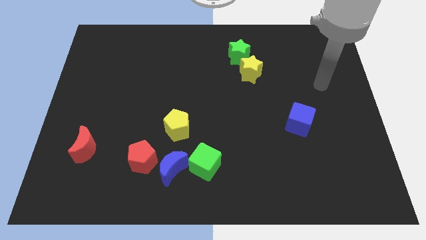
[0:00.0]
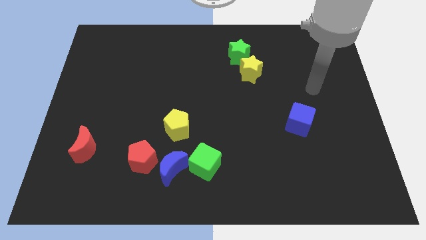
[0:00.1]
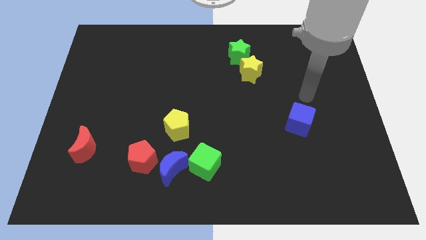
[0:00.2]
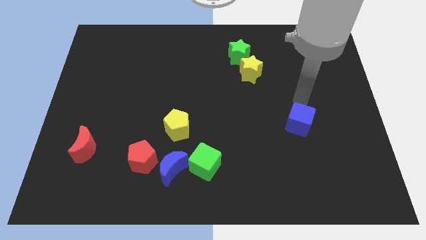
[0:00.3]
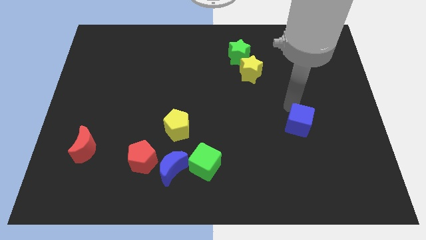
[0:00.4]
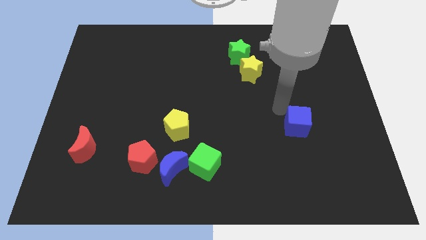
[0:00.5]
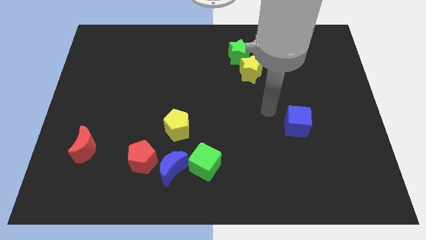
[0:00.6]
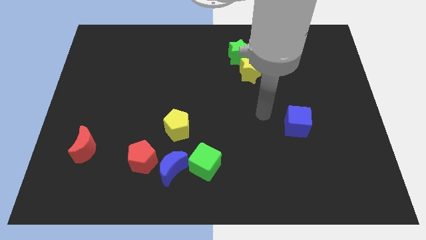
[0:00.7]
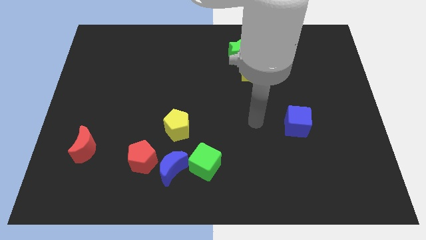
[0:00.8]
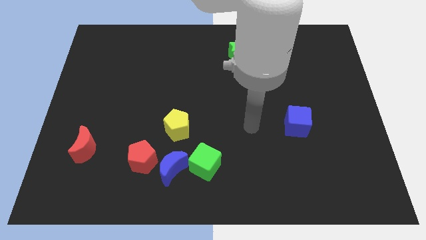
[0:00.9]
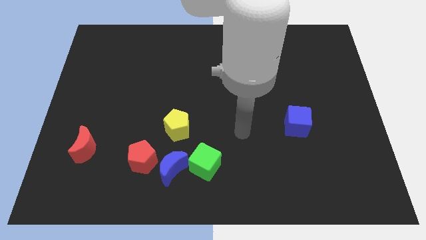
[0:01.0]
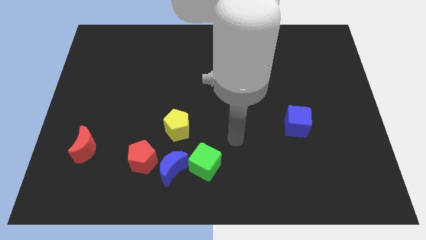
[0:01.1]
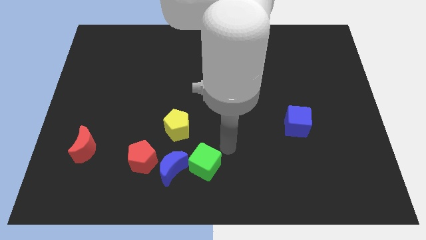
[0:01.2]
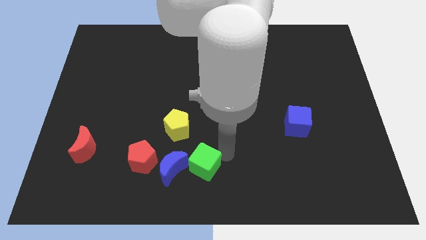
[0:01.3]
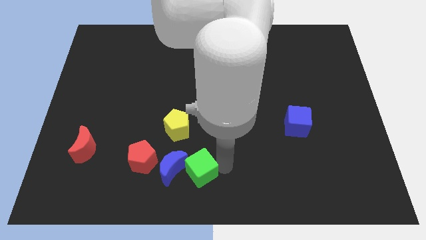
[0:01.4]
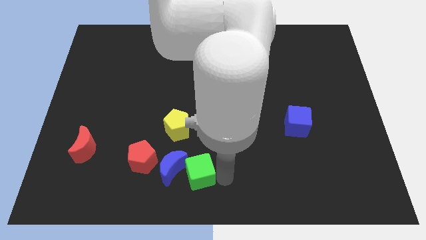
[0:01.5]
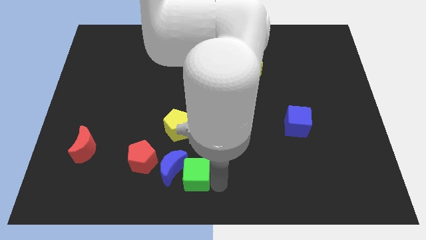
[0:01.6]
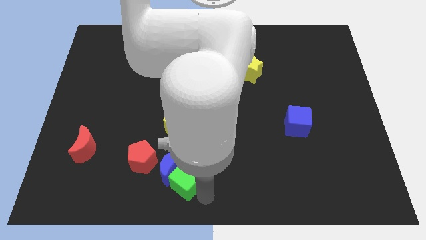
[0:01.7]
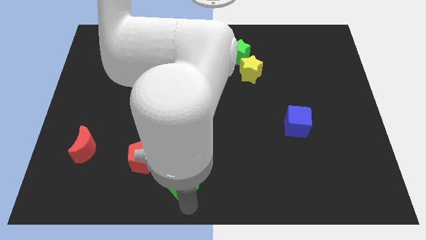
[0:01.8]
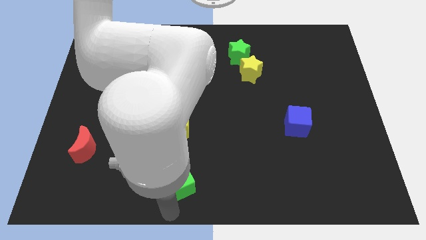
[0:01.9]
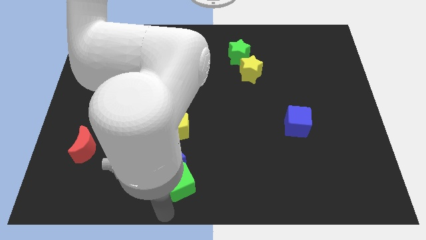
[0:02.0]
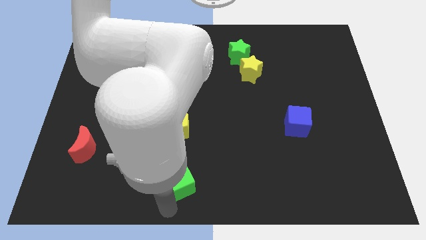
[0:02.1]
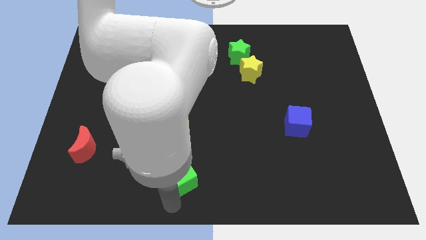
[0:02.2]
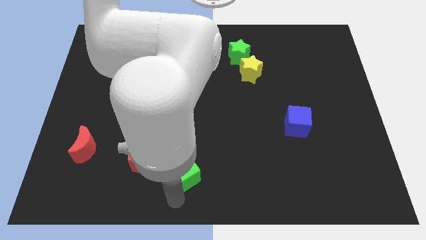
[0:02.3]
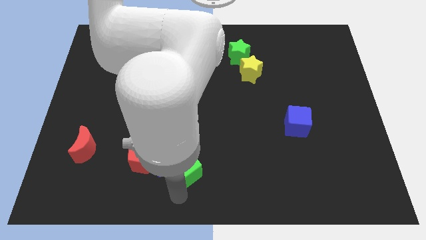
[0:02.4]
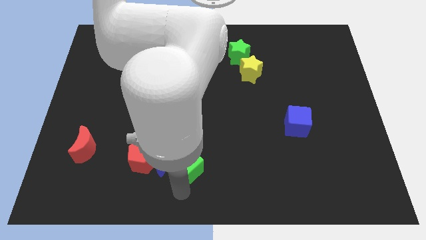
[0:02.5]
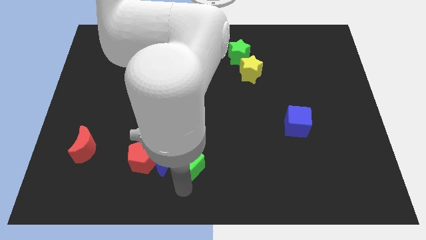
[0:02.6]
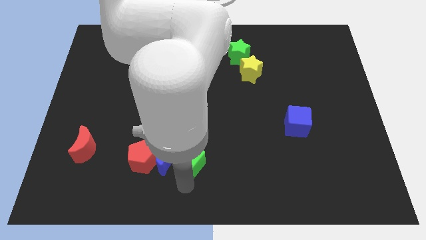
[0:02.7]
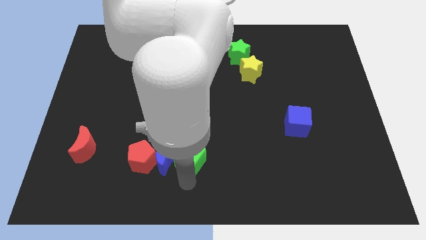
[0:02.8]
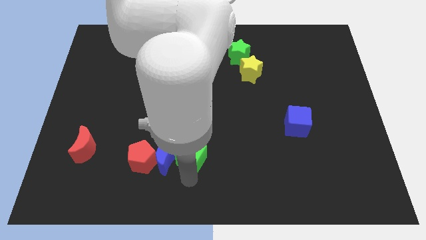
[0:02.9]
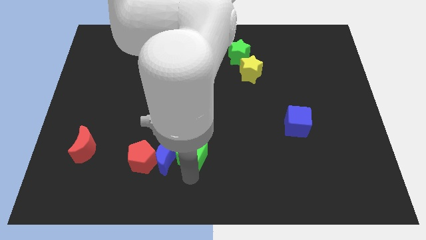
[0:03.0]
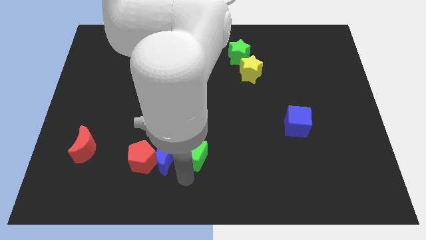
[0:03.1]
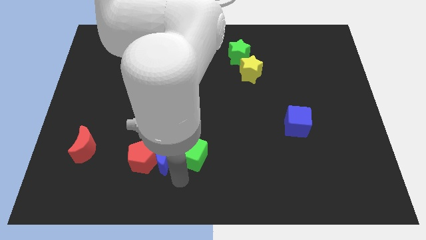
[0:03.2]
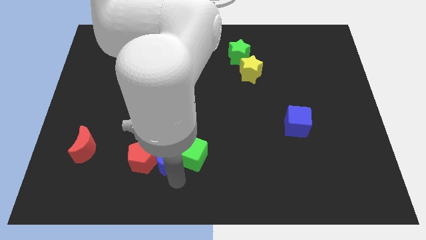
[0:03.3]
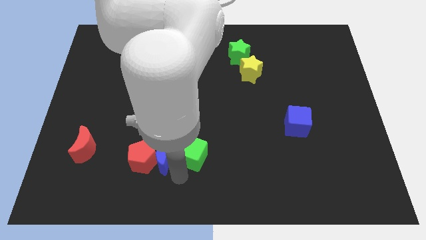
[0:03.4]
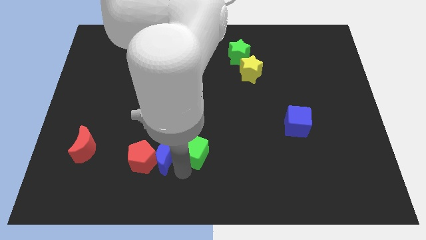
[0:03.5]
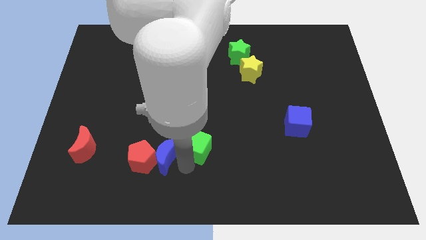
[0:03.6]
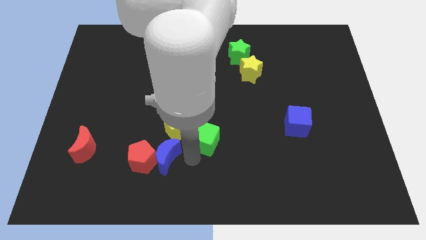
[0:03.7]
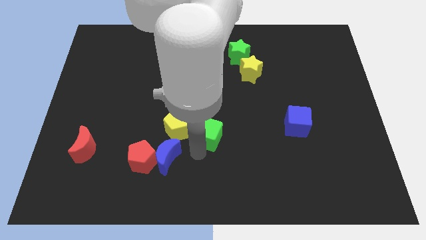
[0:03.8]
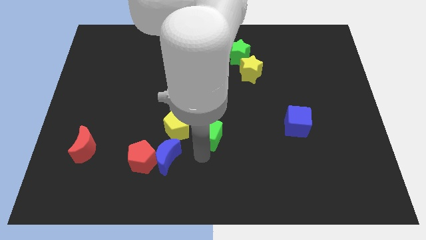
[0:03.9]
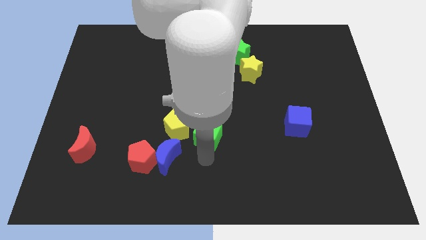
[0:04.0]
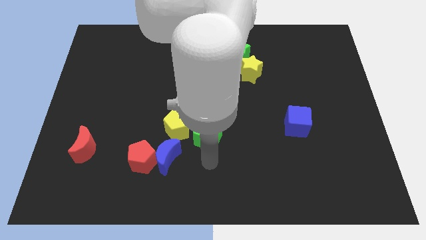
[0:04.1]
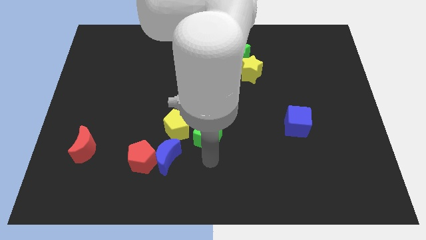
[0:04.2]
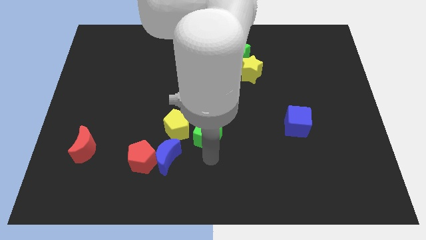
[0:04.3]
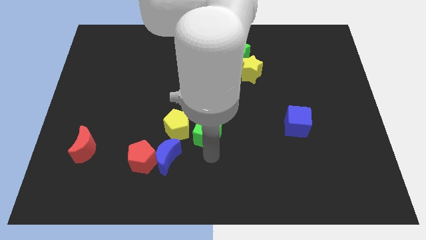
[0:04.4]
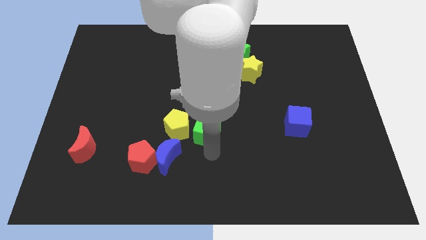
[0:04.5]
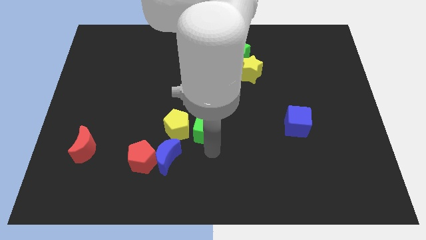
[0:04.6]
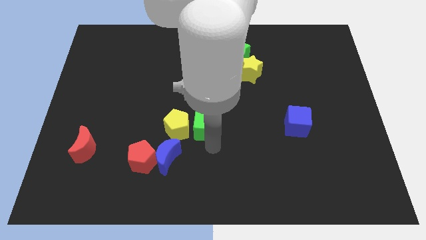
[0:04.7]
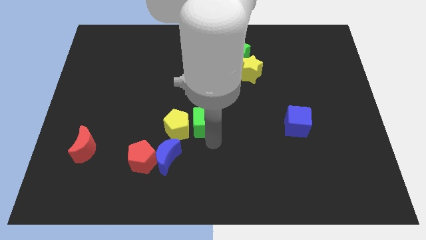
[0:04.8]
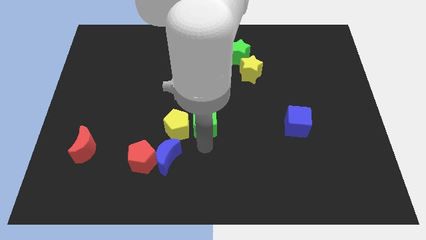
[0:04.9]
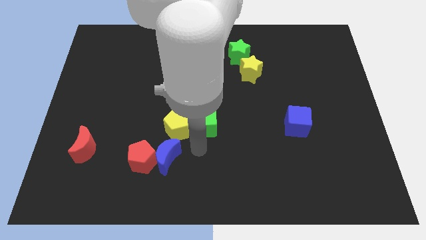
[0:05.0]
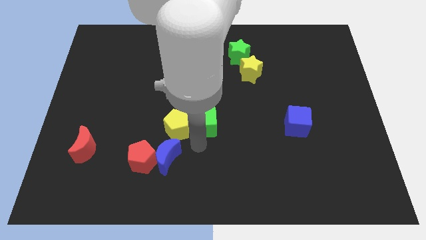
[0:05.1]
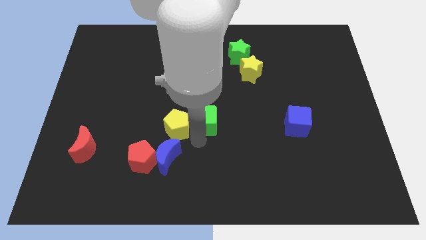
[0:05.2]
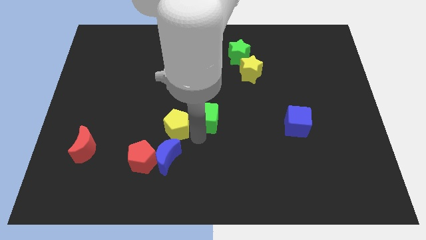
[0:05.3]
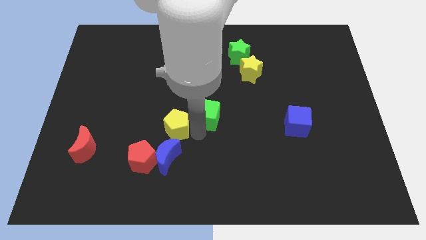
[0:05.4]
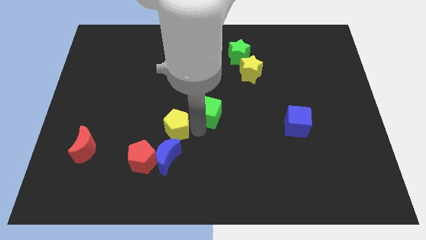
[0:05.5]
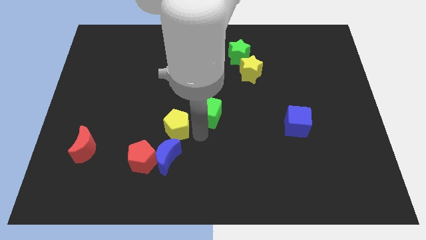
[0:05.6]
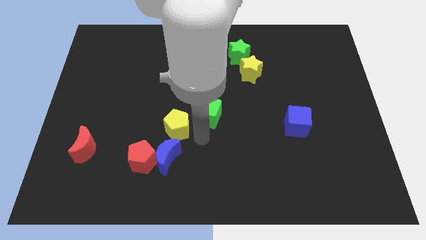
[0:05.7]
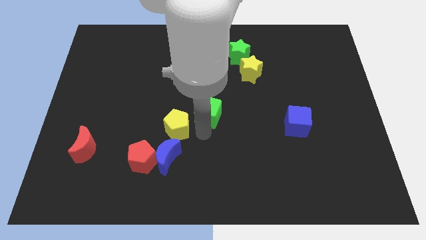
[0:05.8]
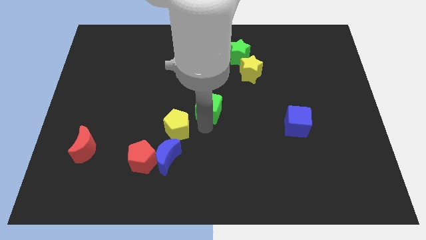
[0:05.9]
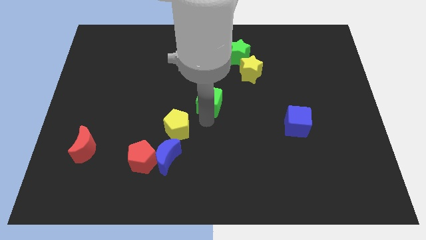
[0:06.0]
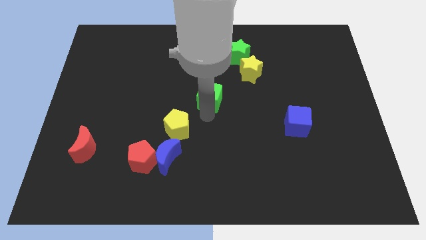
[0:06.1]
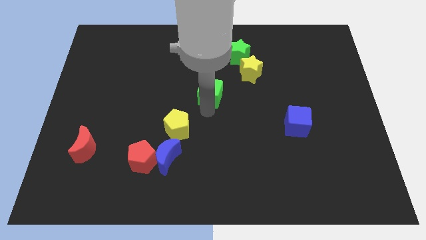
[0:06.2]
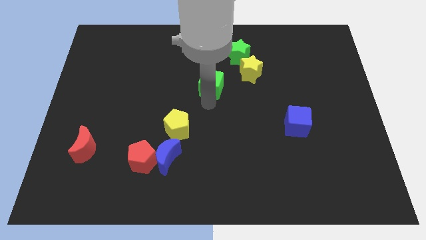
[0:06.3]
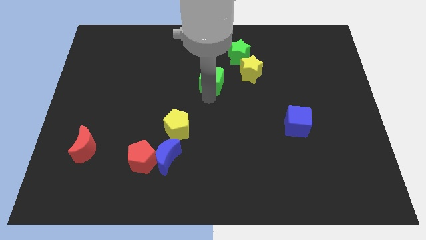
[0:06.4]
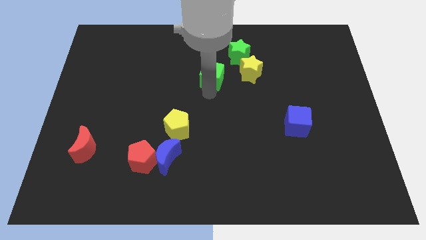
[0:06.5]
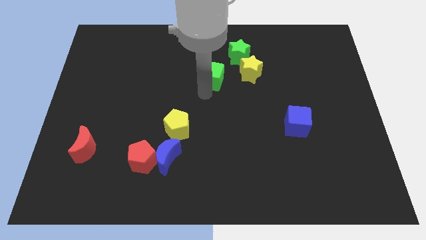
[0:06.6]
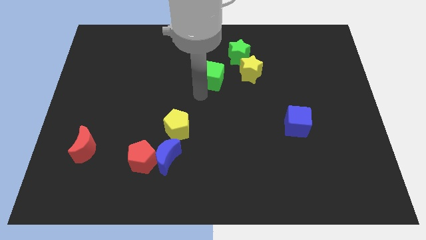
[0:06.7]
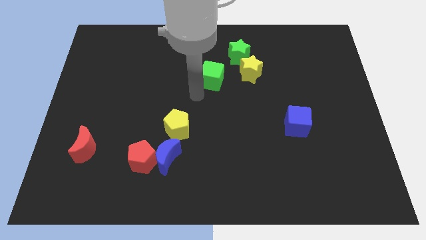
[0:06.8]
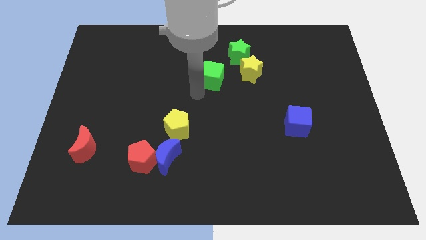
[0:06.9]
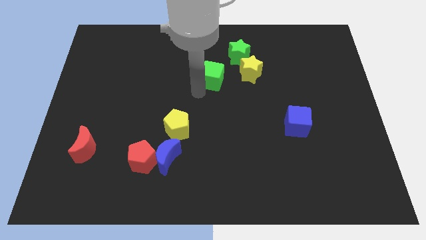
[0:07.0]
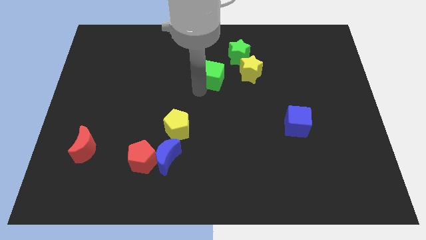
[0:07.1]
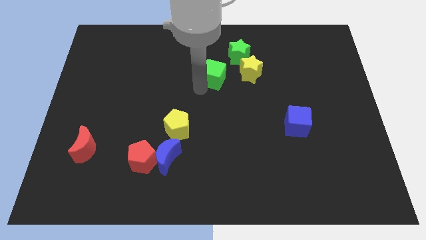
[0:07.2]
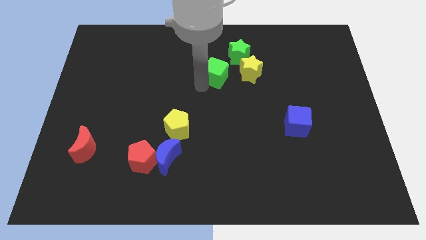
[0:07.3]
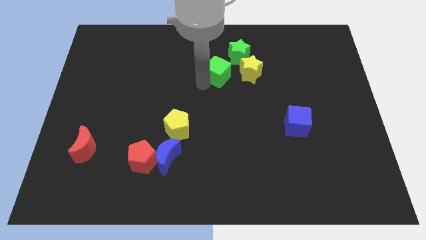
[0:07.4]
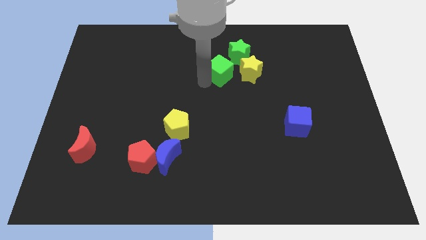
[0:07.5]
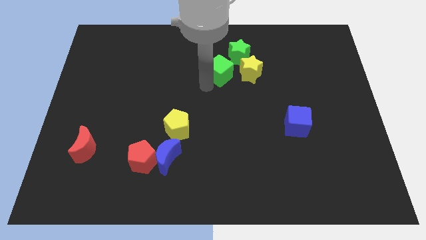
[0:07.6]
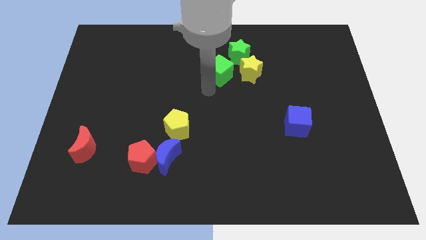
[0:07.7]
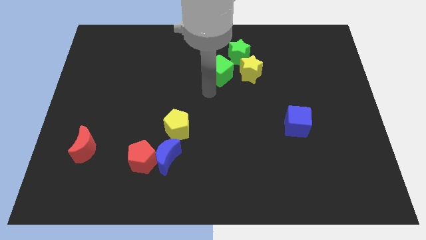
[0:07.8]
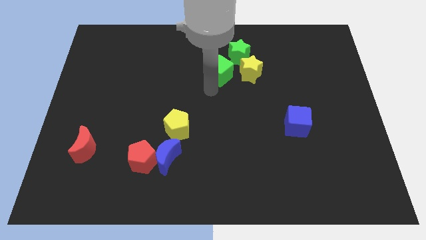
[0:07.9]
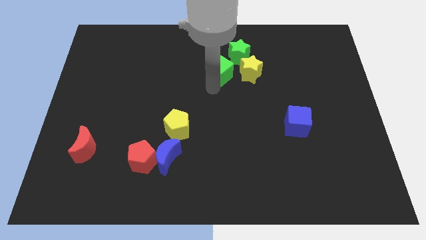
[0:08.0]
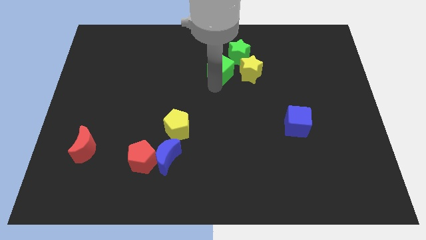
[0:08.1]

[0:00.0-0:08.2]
slide the green cube to the top left of the yellow star
